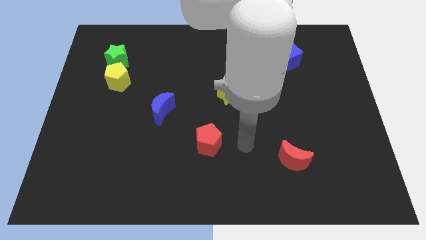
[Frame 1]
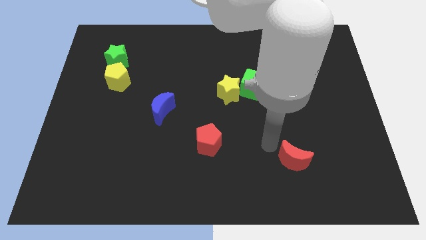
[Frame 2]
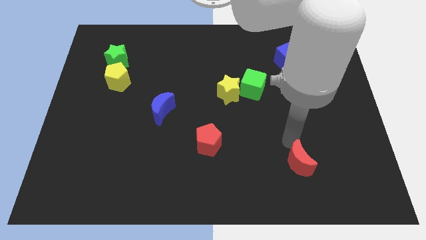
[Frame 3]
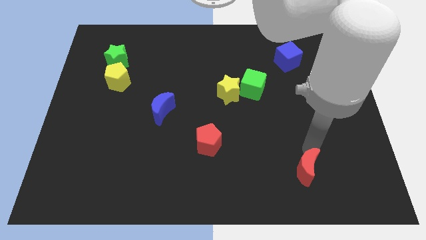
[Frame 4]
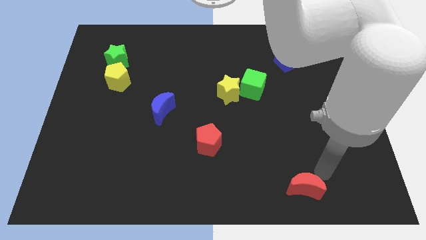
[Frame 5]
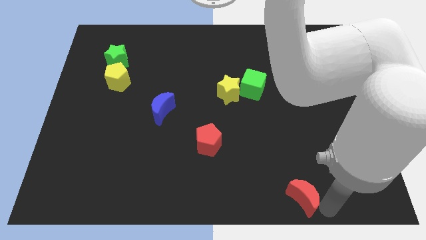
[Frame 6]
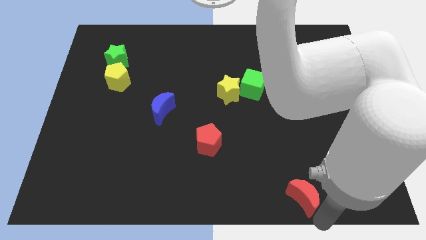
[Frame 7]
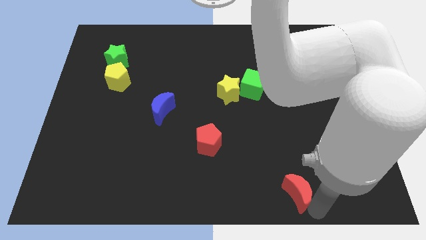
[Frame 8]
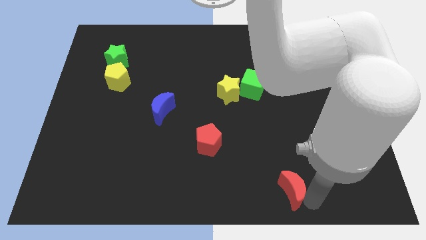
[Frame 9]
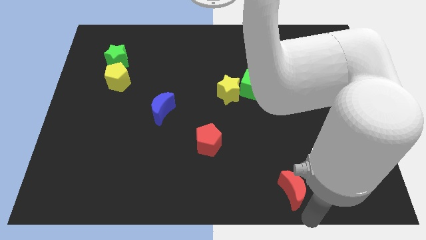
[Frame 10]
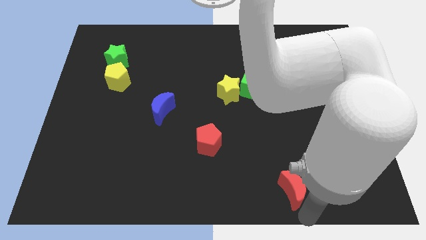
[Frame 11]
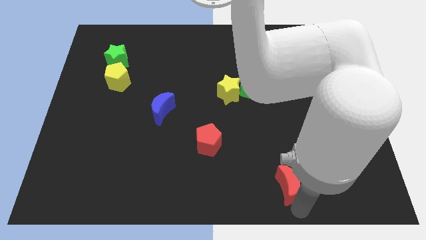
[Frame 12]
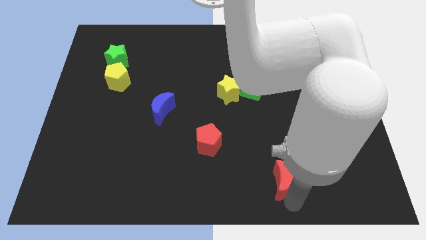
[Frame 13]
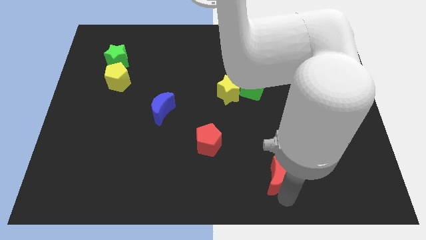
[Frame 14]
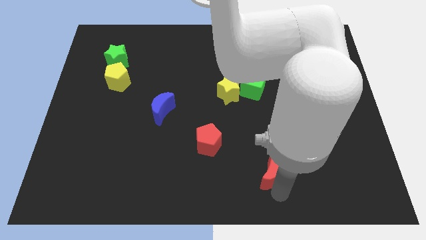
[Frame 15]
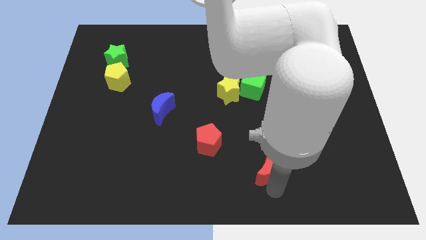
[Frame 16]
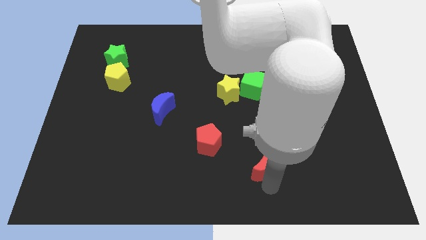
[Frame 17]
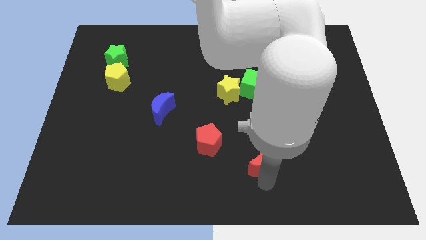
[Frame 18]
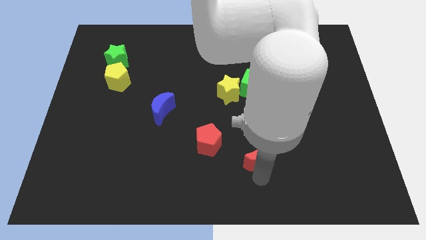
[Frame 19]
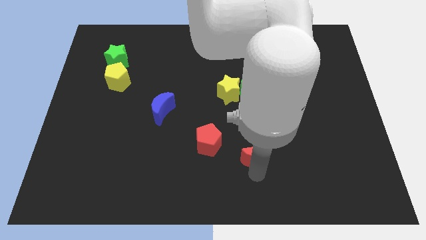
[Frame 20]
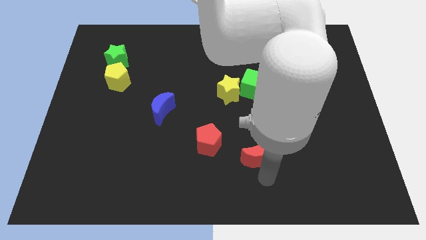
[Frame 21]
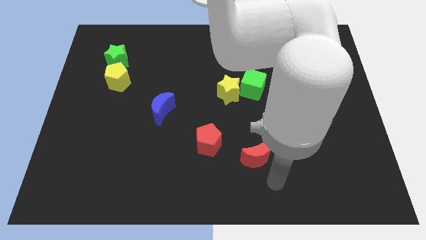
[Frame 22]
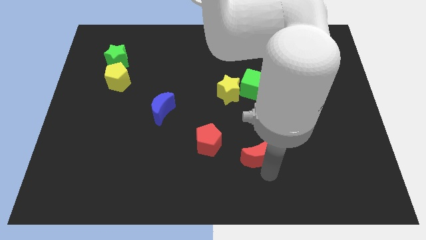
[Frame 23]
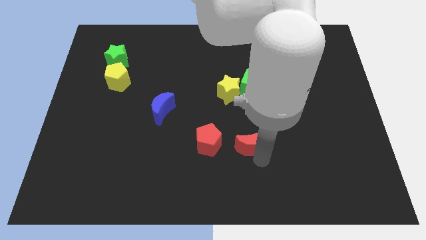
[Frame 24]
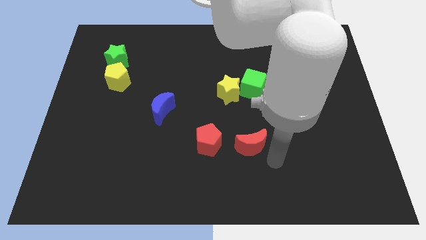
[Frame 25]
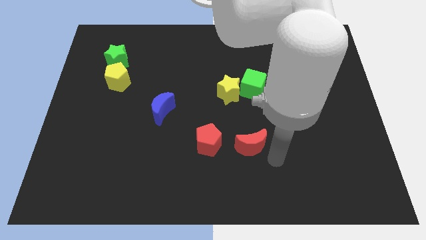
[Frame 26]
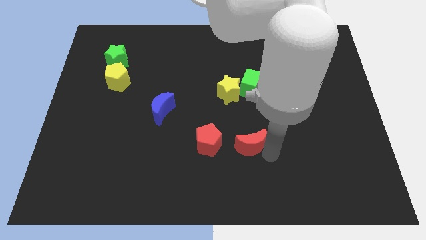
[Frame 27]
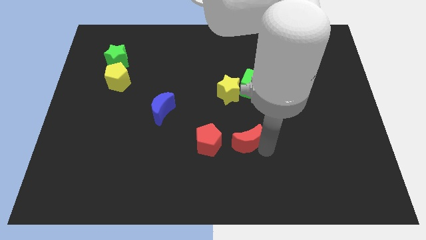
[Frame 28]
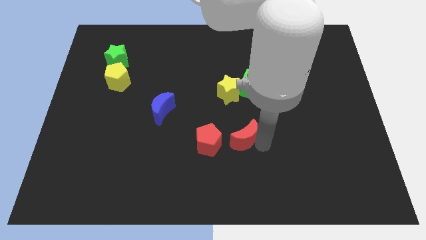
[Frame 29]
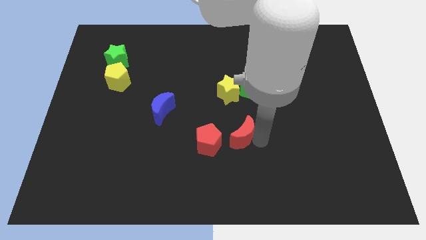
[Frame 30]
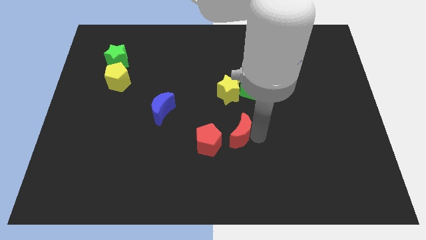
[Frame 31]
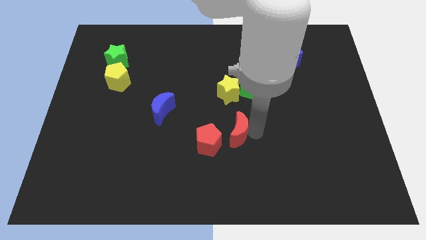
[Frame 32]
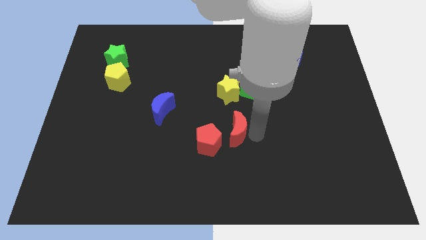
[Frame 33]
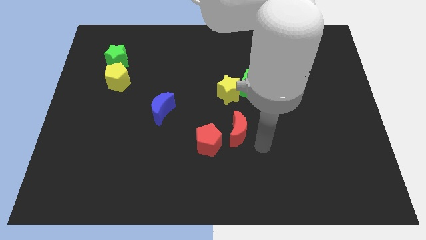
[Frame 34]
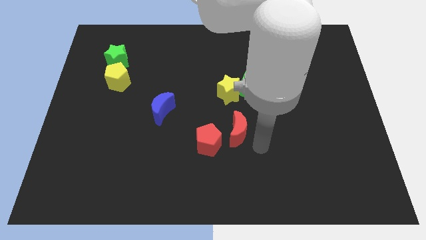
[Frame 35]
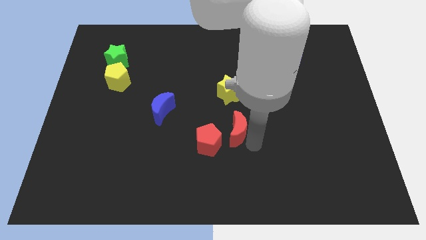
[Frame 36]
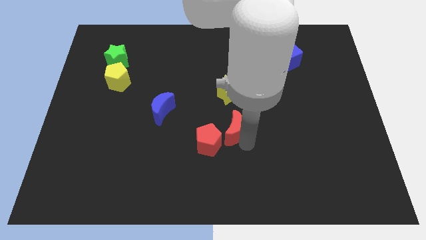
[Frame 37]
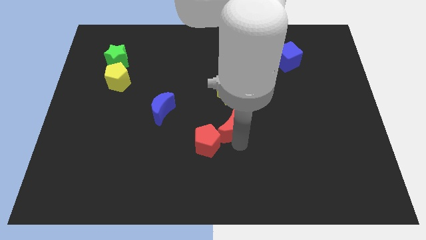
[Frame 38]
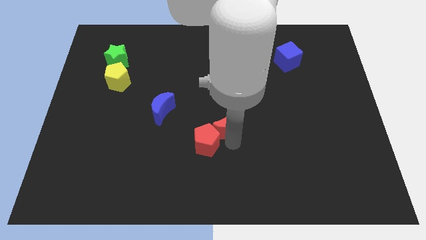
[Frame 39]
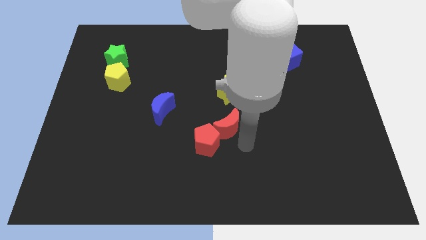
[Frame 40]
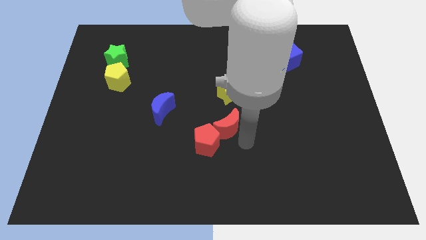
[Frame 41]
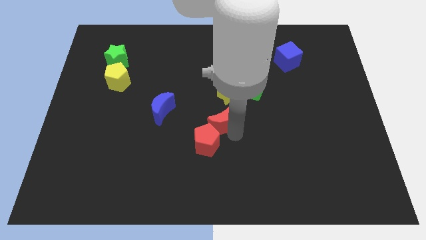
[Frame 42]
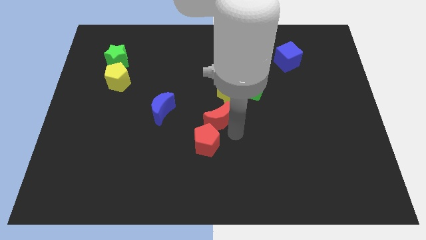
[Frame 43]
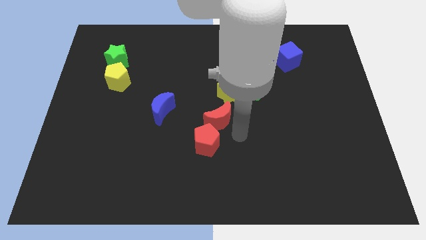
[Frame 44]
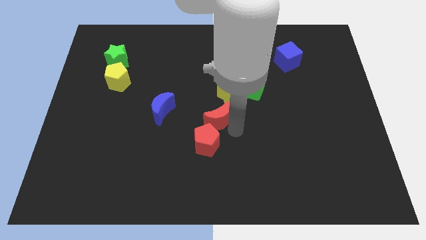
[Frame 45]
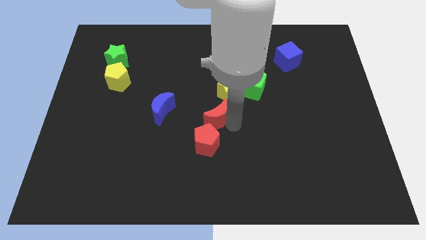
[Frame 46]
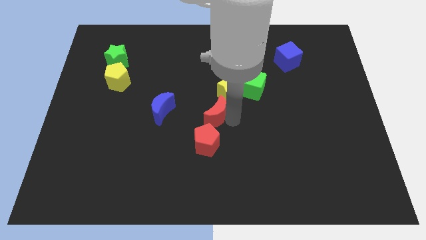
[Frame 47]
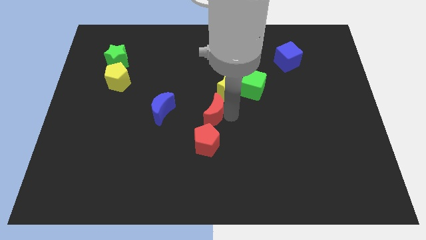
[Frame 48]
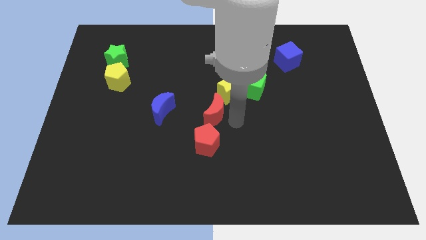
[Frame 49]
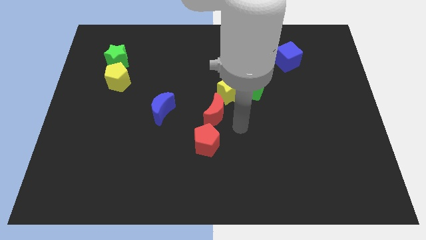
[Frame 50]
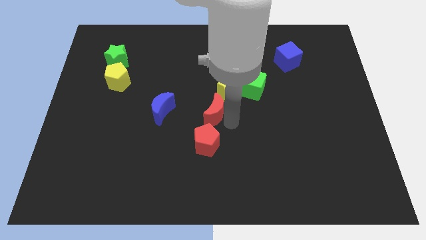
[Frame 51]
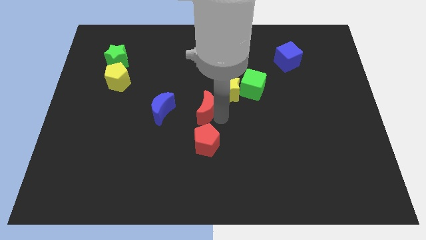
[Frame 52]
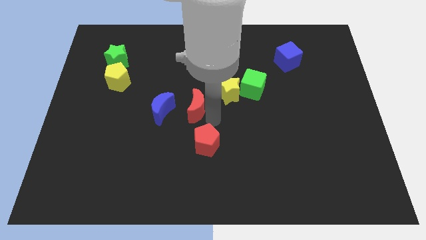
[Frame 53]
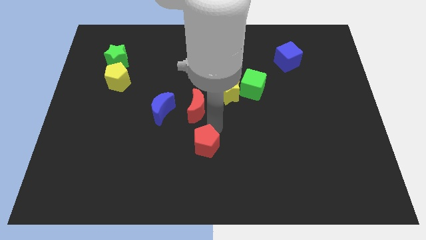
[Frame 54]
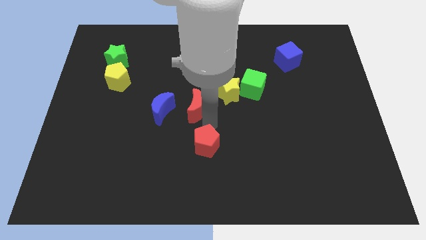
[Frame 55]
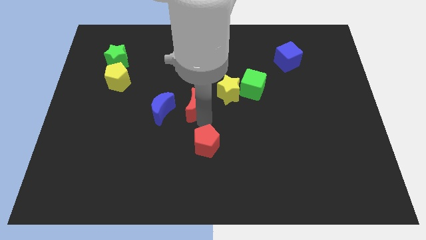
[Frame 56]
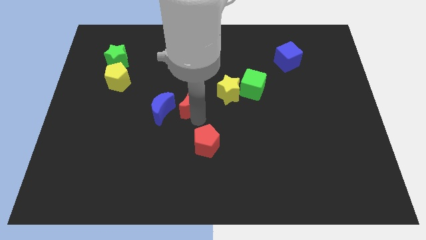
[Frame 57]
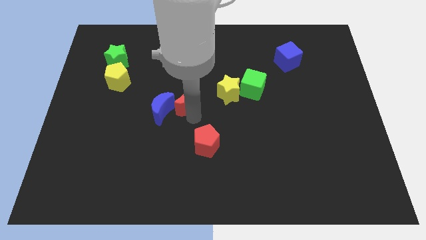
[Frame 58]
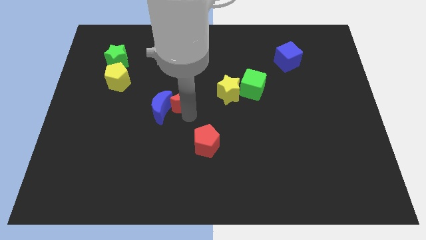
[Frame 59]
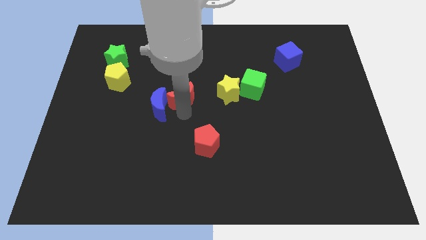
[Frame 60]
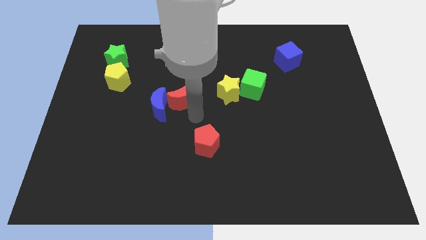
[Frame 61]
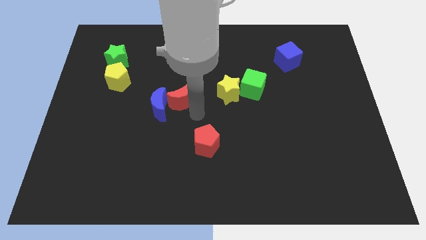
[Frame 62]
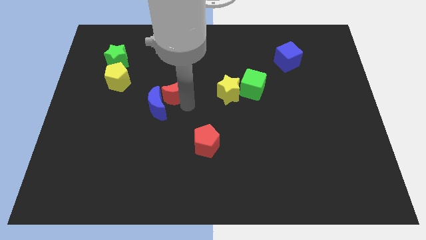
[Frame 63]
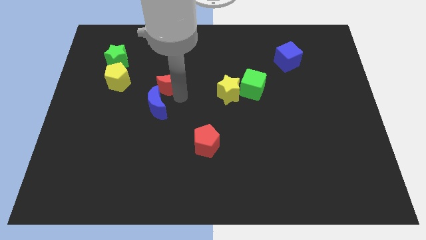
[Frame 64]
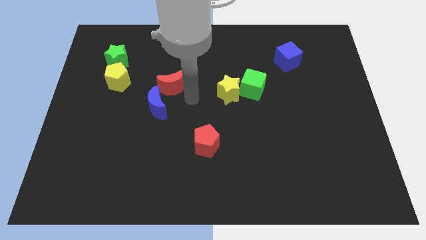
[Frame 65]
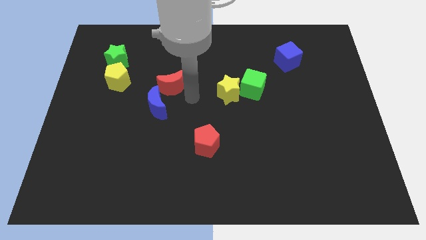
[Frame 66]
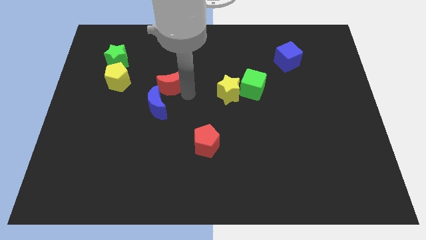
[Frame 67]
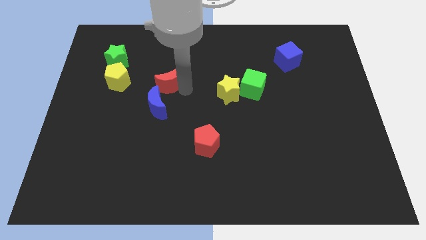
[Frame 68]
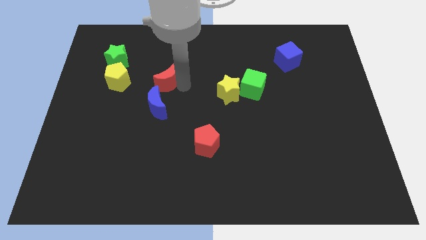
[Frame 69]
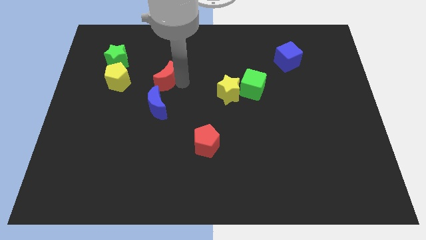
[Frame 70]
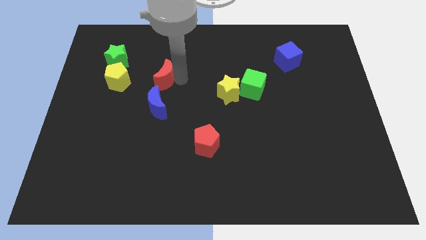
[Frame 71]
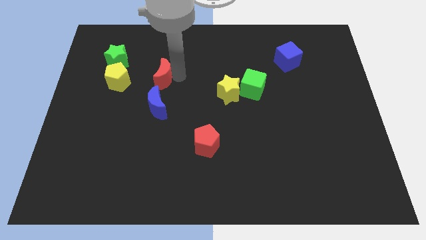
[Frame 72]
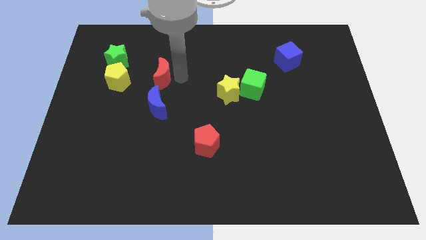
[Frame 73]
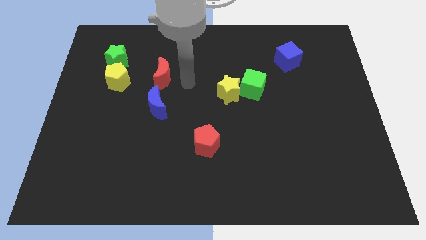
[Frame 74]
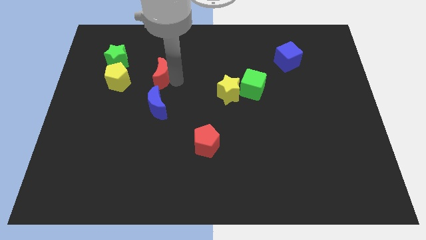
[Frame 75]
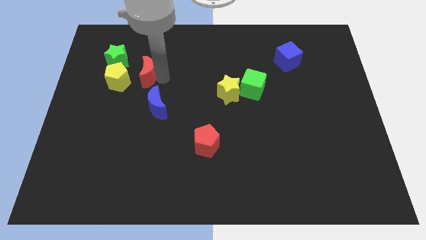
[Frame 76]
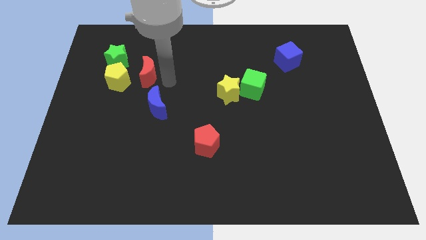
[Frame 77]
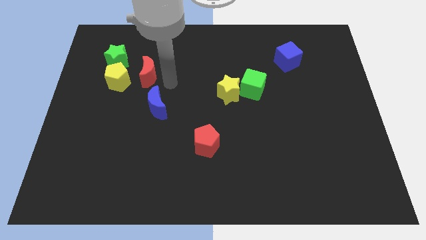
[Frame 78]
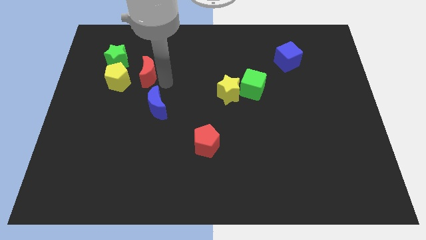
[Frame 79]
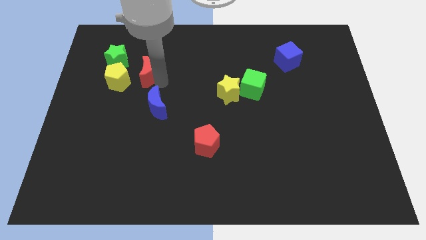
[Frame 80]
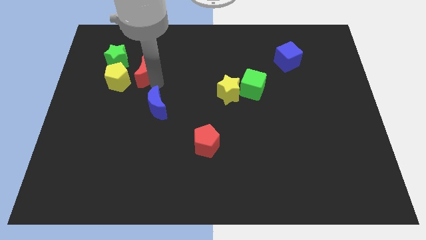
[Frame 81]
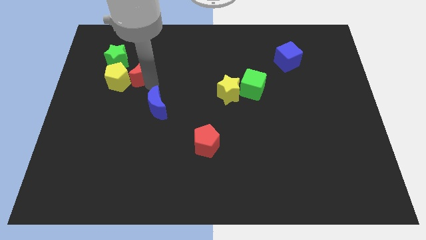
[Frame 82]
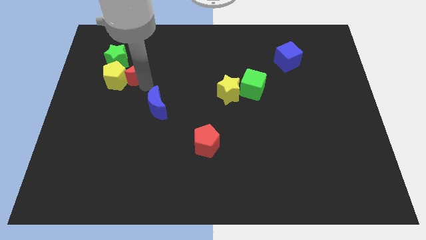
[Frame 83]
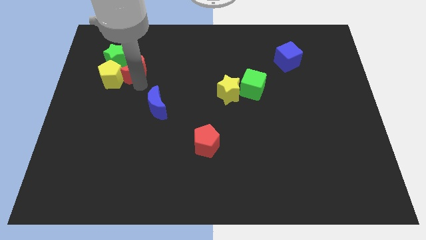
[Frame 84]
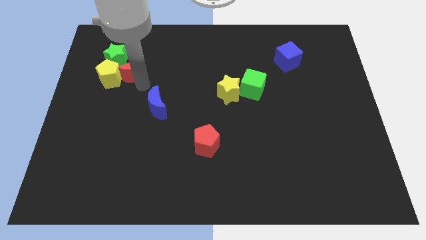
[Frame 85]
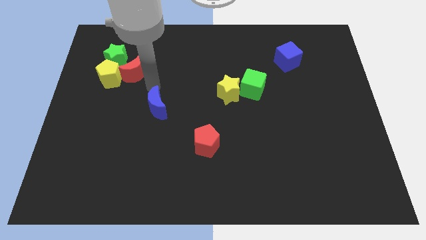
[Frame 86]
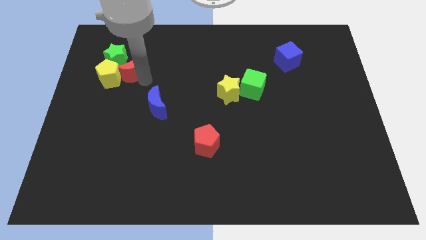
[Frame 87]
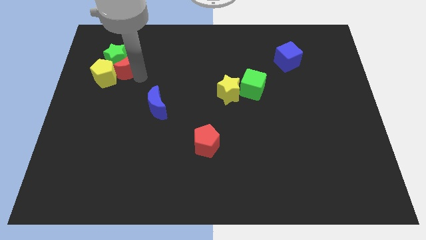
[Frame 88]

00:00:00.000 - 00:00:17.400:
push the red moon to the green star
